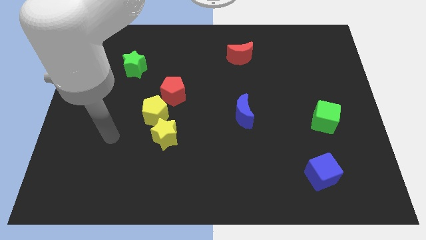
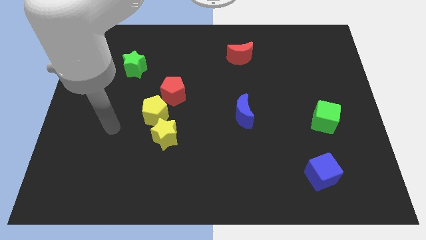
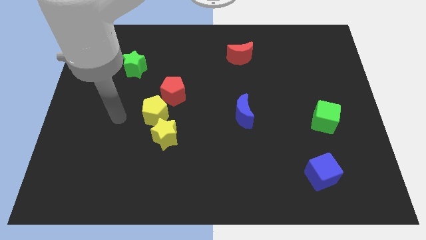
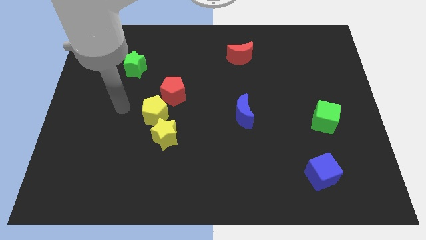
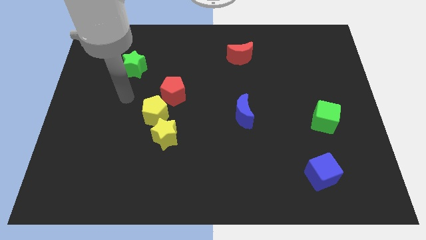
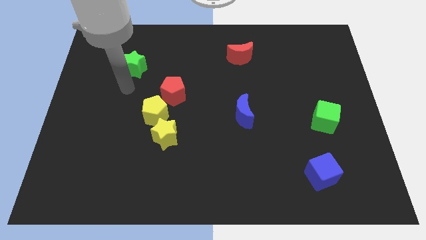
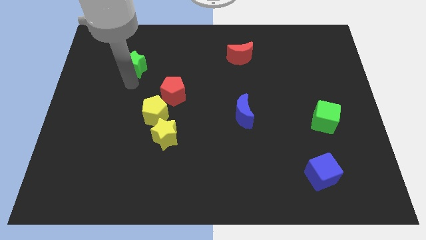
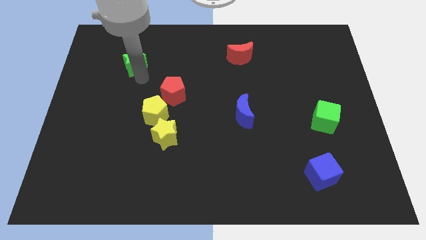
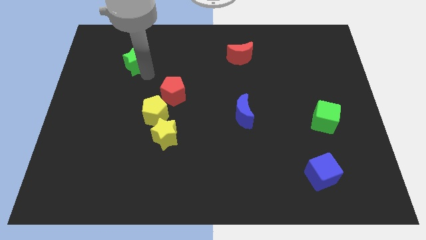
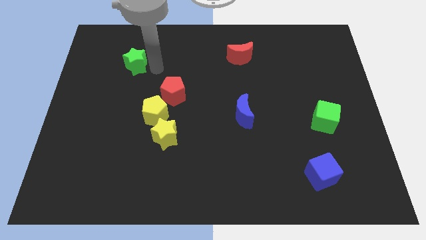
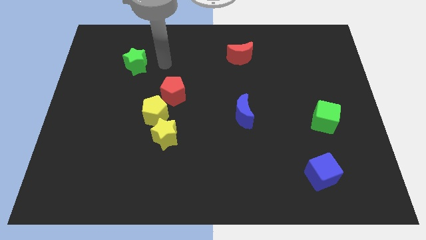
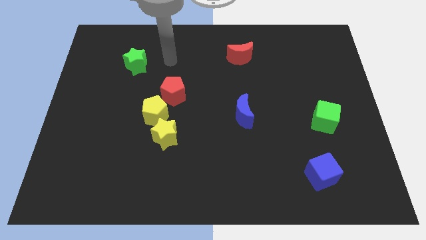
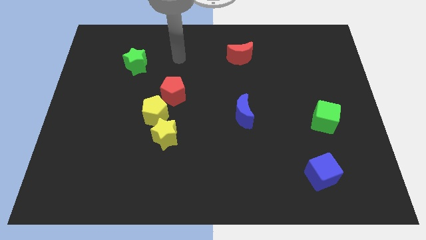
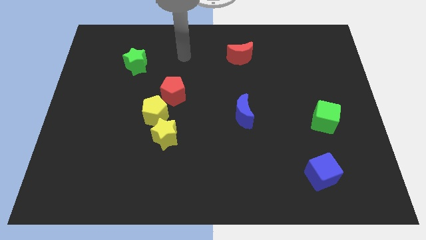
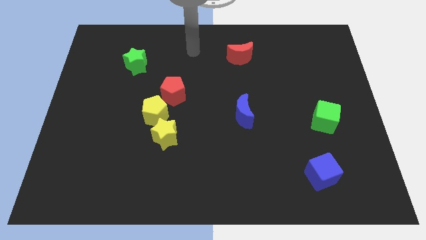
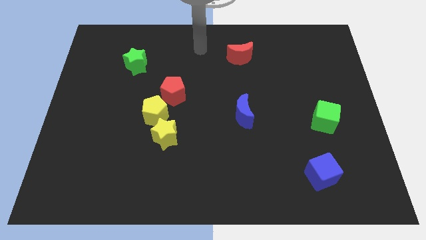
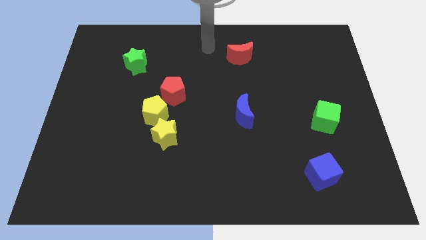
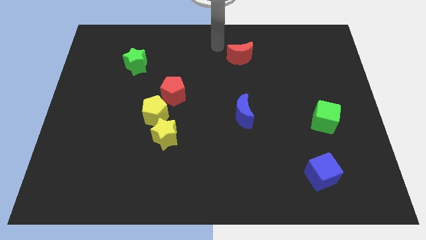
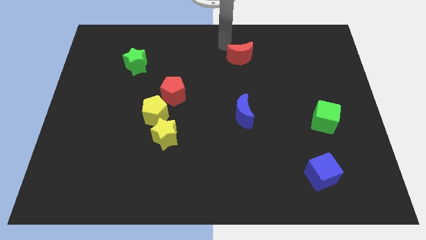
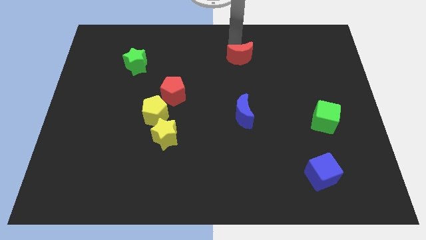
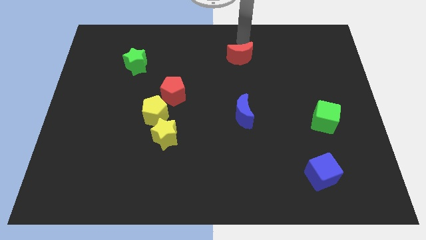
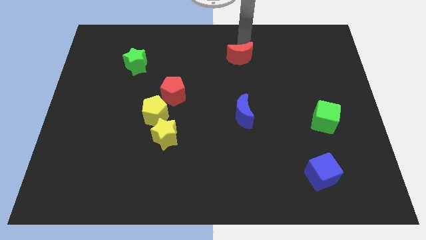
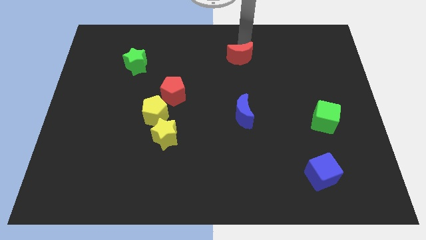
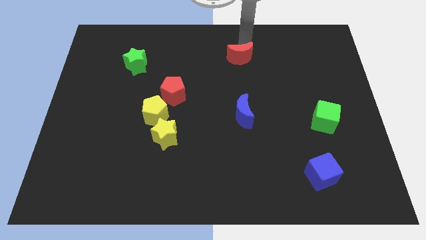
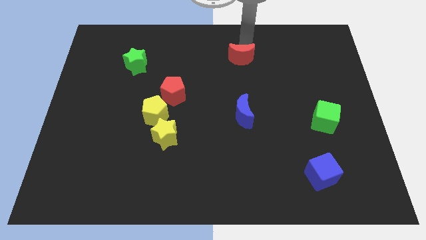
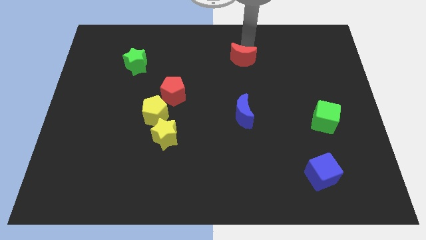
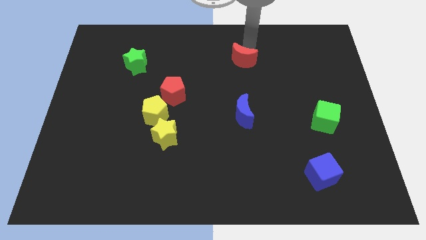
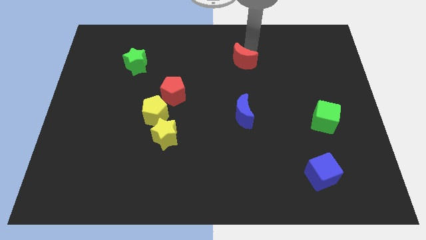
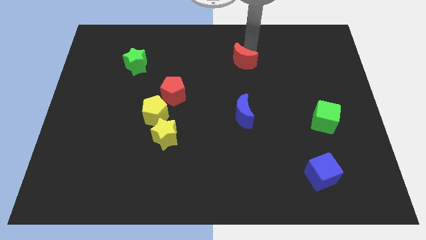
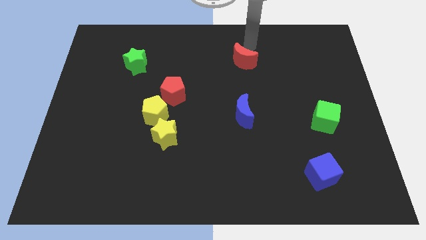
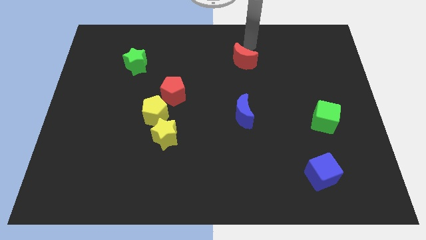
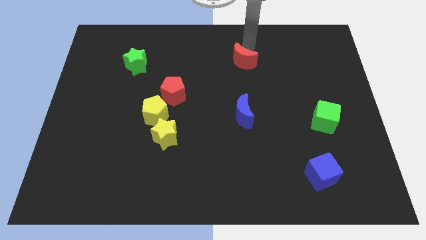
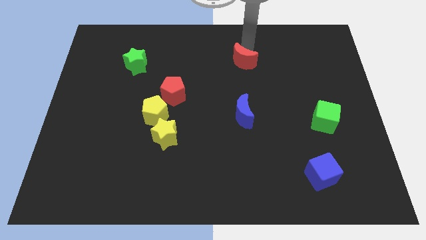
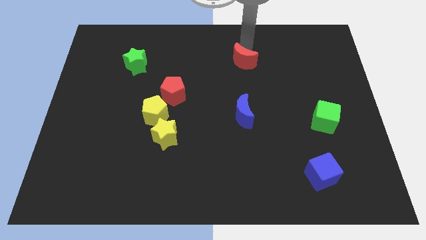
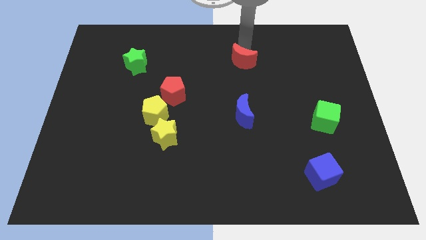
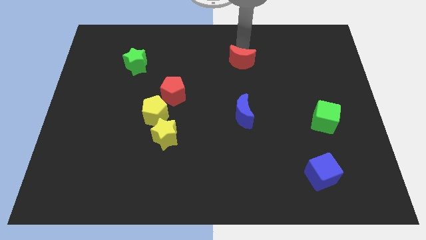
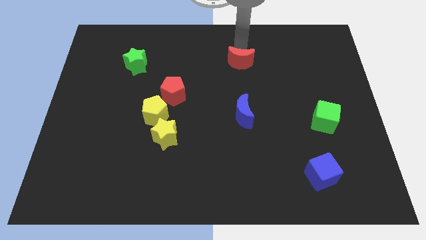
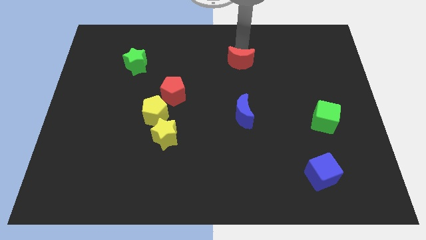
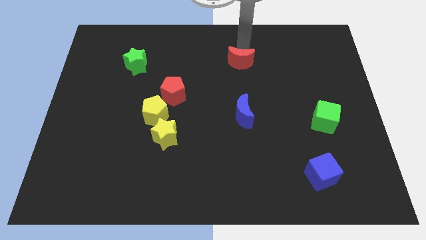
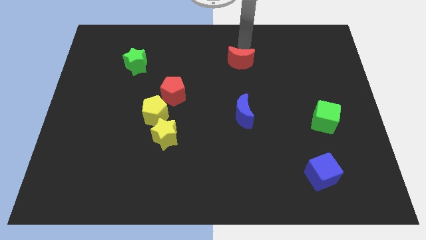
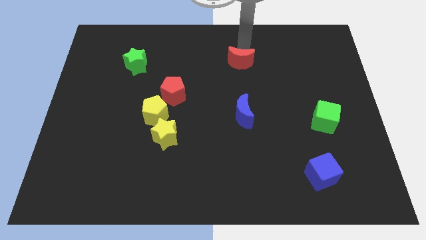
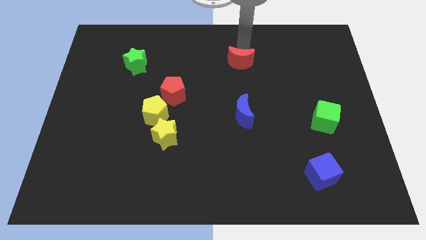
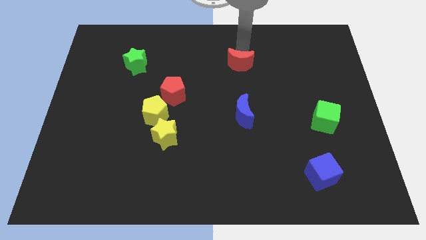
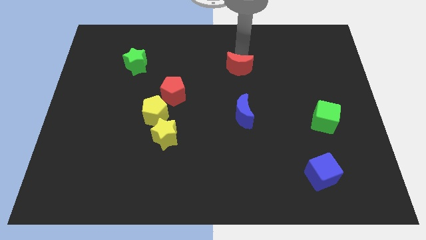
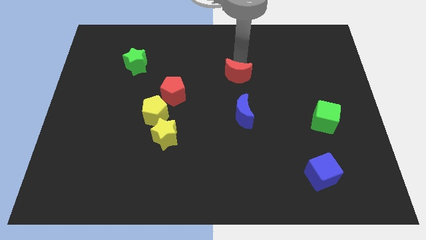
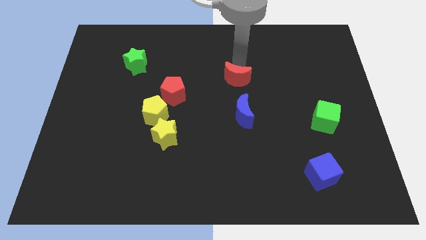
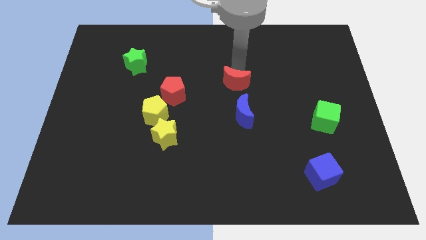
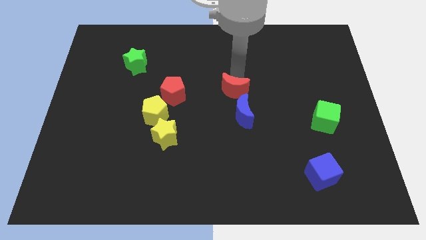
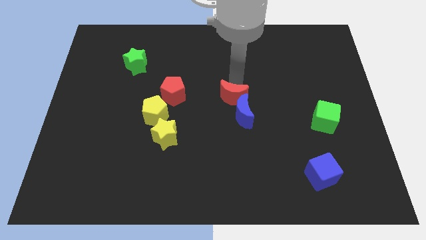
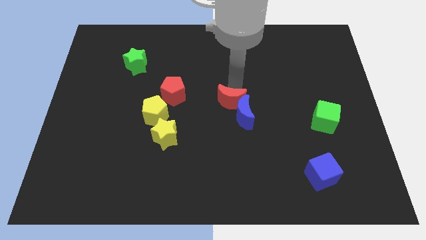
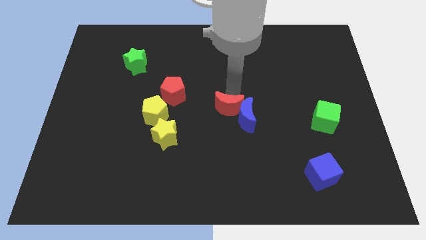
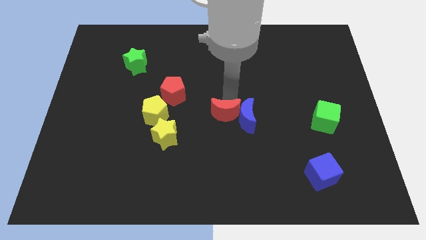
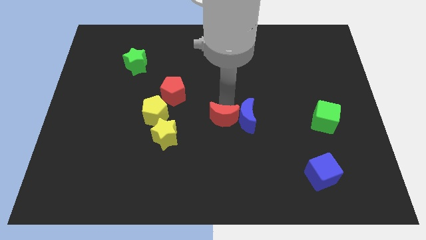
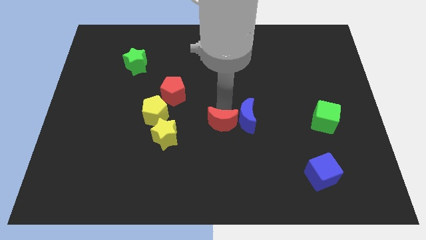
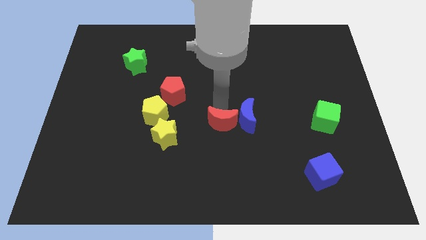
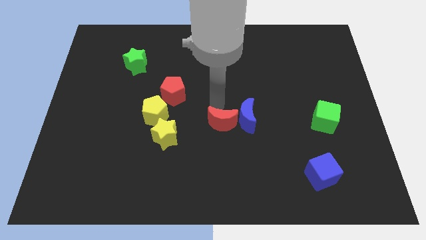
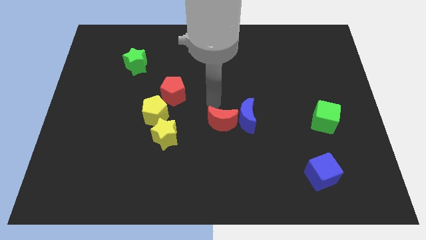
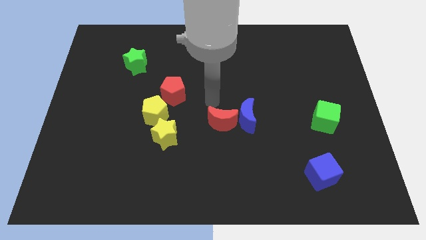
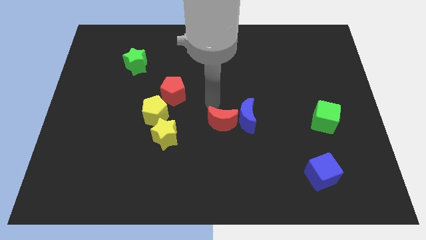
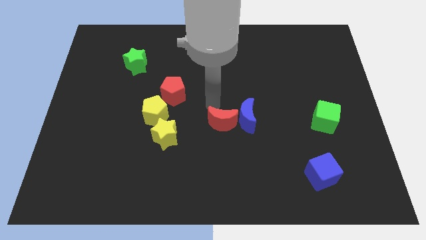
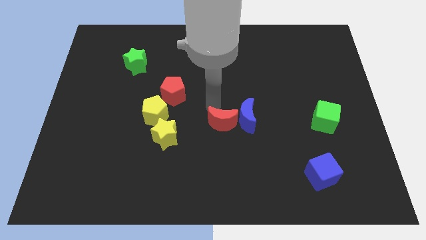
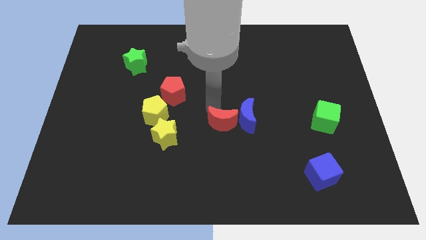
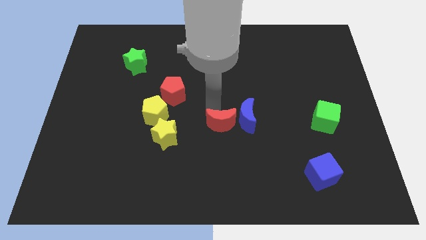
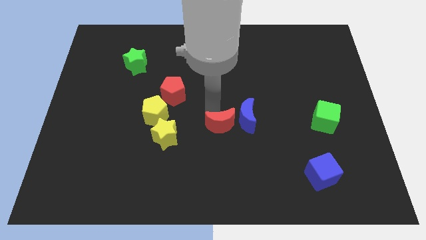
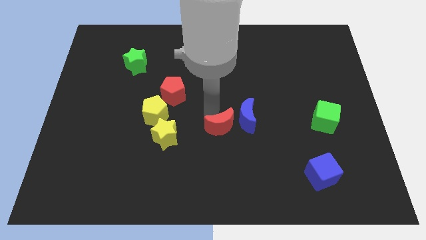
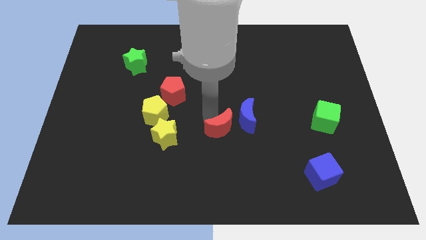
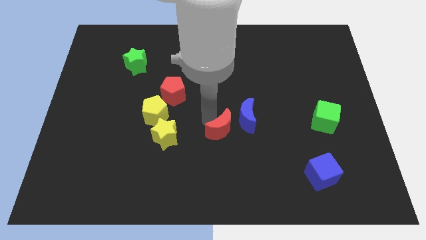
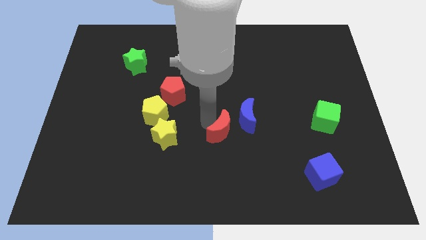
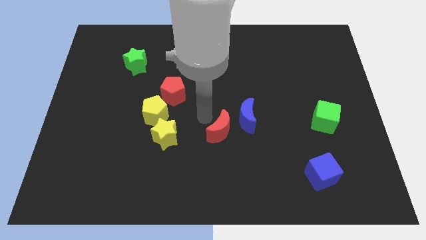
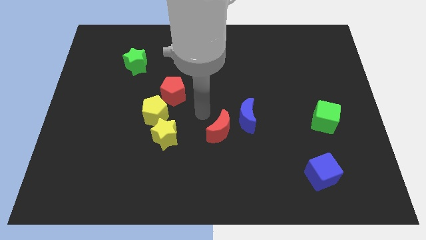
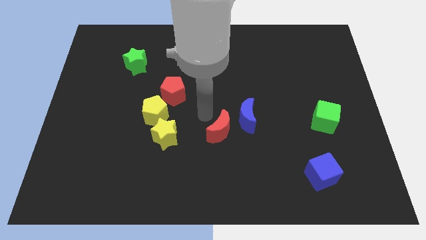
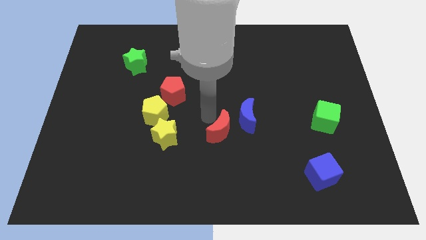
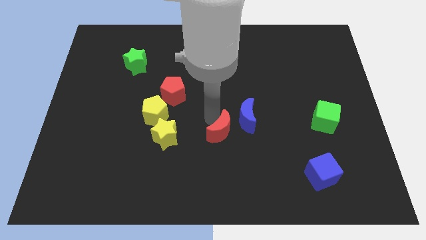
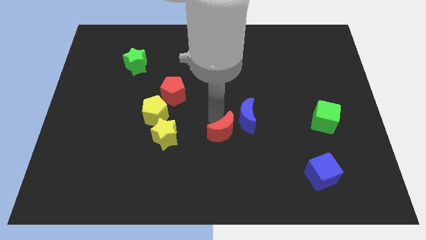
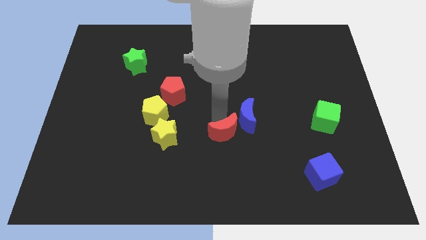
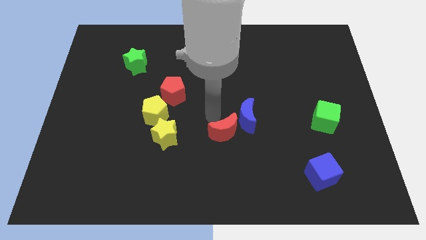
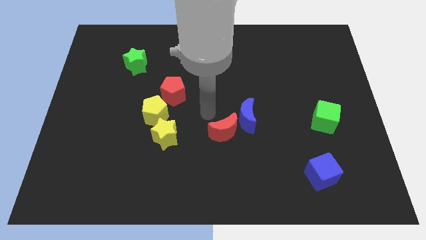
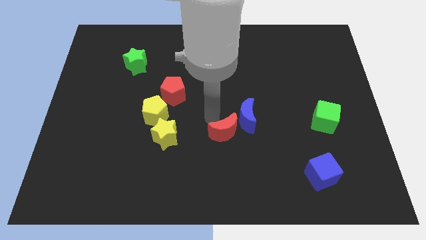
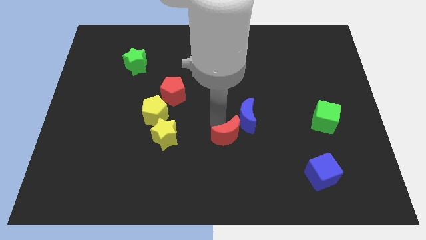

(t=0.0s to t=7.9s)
move the red moon to the bottom of the blue moon

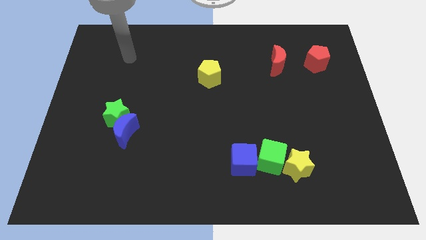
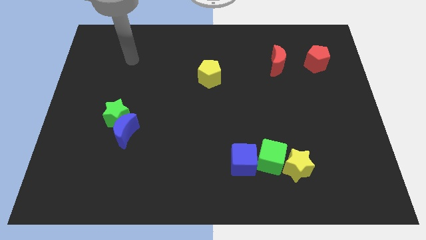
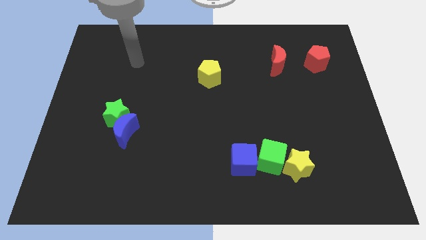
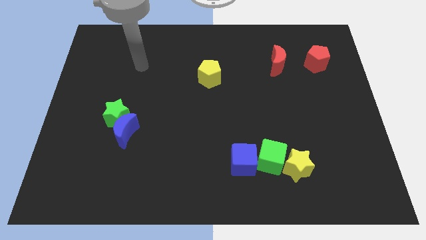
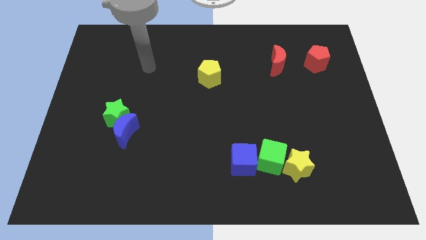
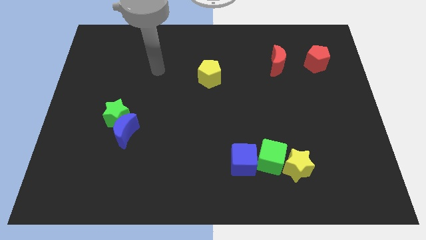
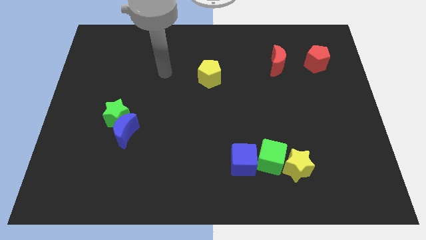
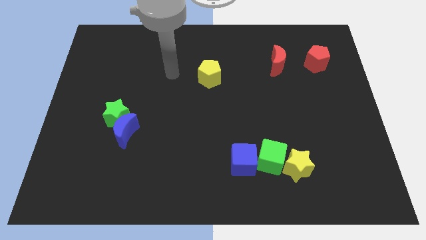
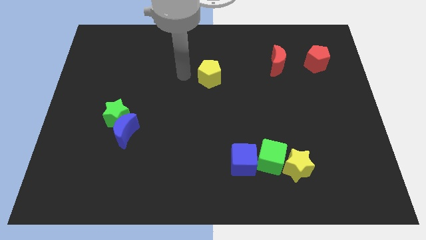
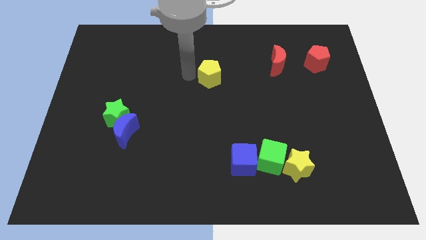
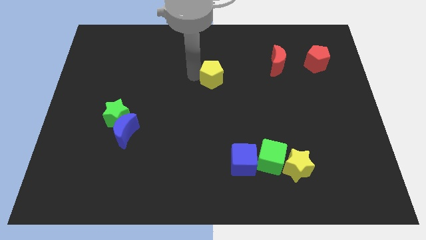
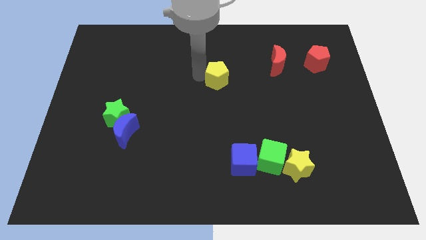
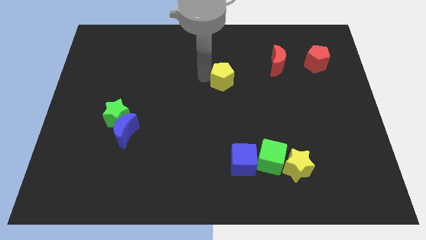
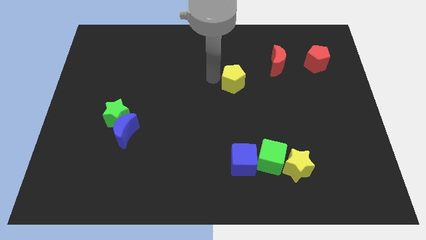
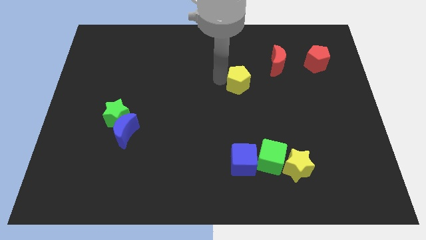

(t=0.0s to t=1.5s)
put the yellow pentagon to the bottom left side of the red moon
